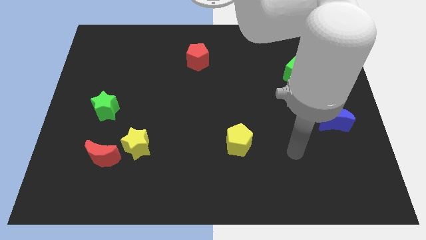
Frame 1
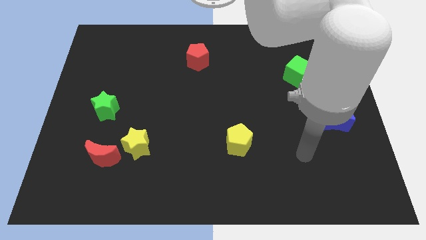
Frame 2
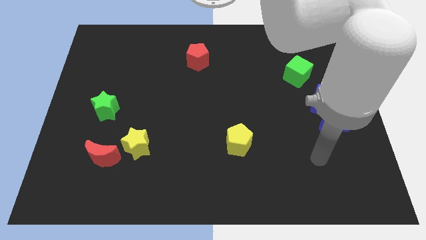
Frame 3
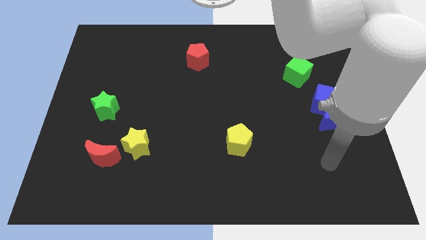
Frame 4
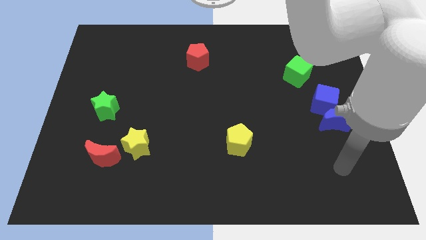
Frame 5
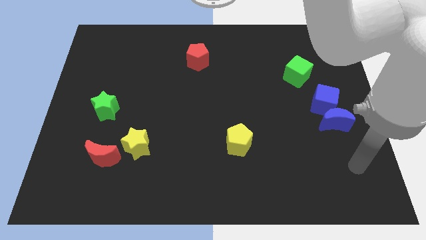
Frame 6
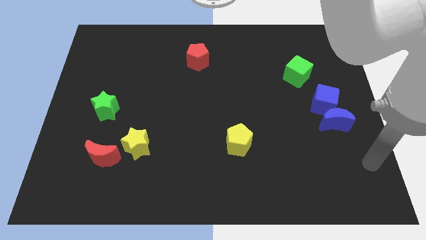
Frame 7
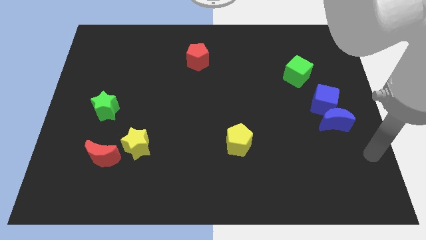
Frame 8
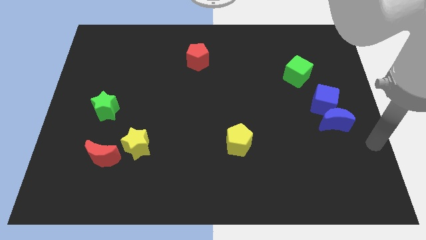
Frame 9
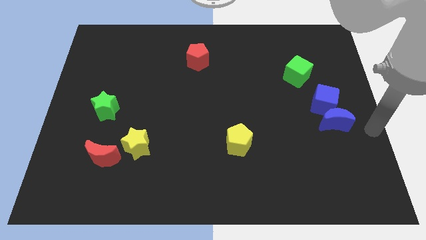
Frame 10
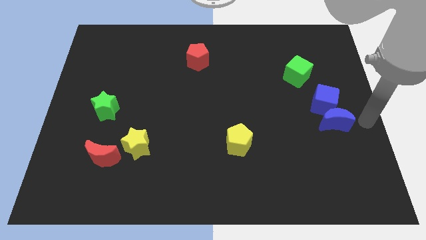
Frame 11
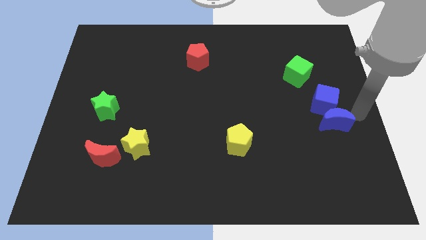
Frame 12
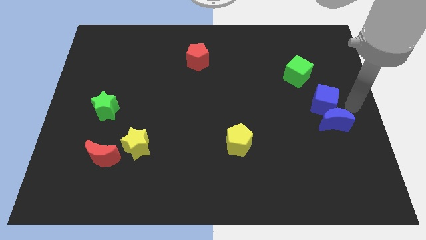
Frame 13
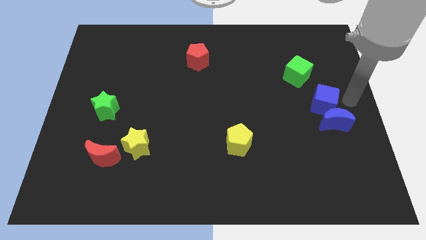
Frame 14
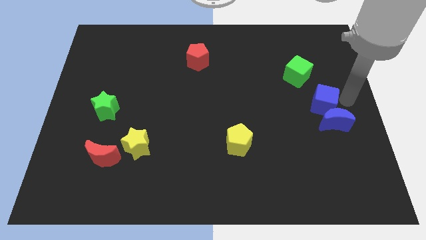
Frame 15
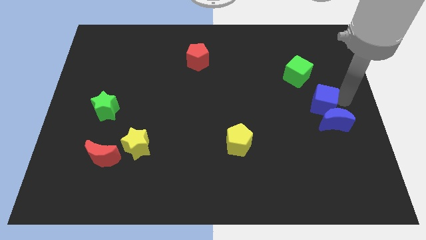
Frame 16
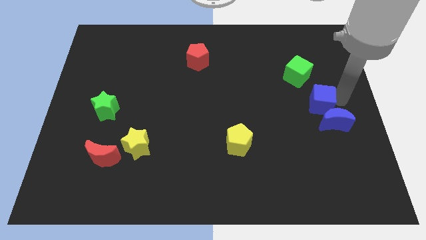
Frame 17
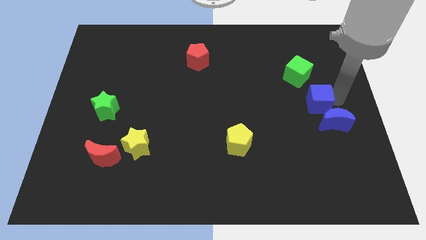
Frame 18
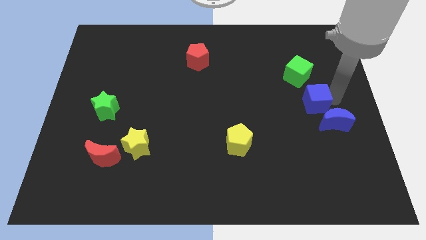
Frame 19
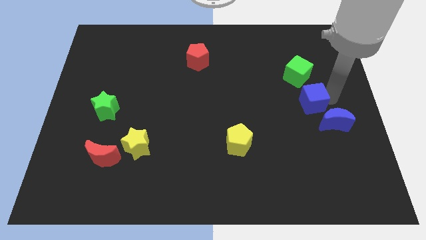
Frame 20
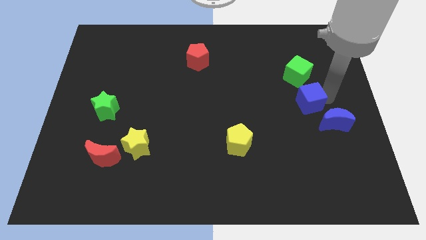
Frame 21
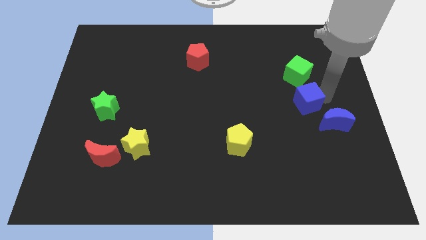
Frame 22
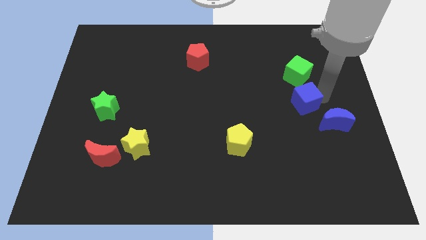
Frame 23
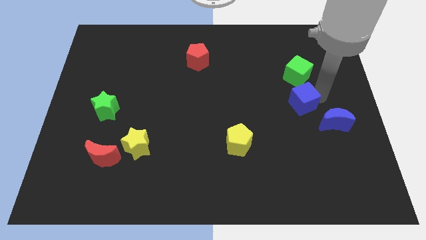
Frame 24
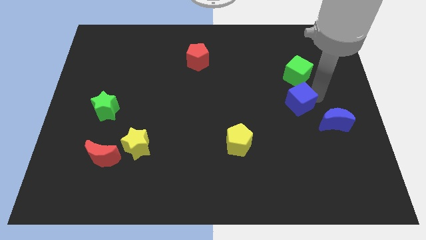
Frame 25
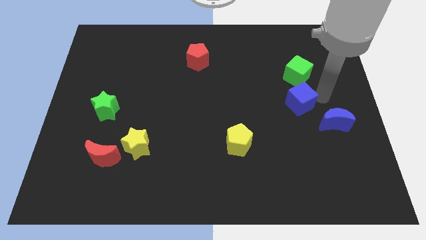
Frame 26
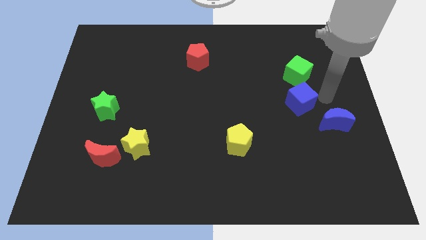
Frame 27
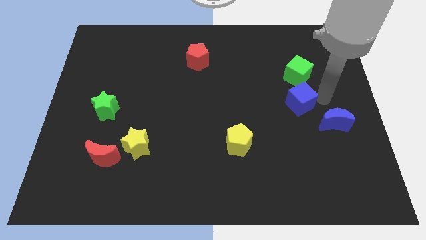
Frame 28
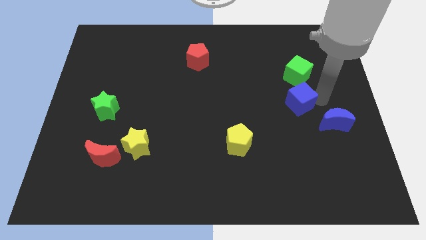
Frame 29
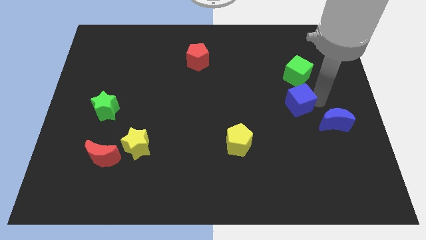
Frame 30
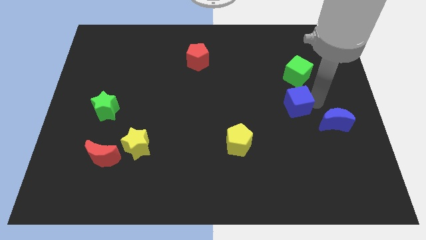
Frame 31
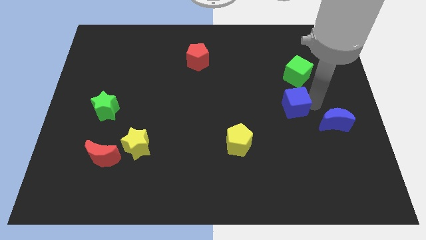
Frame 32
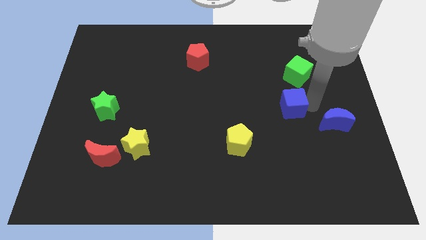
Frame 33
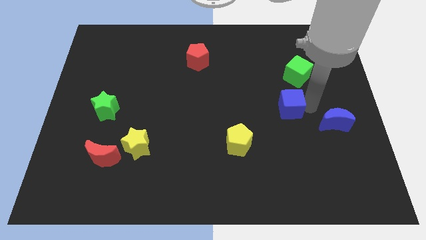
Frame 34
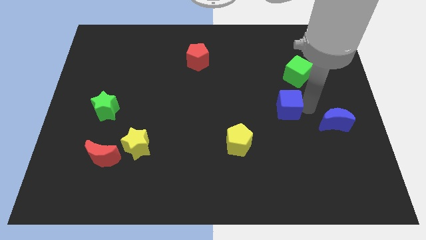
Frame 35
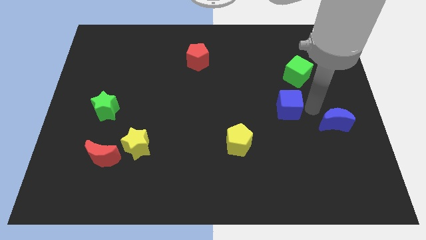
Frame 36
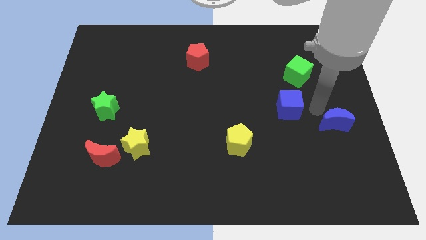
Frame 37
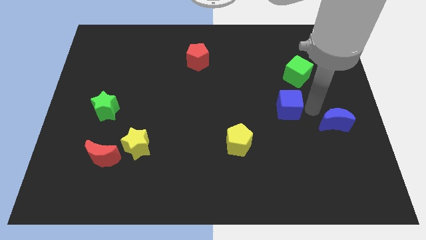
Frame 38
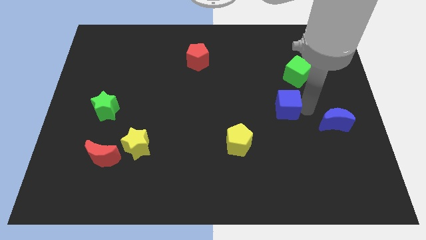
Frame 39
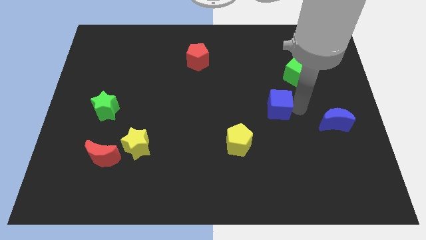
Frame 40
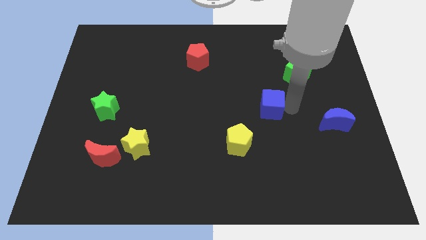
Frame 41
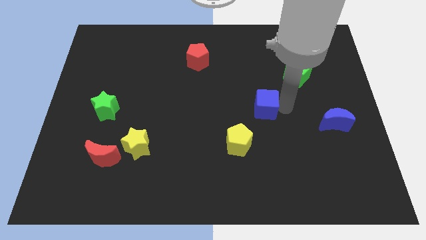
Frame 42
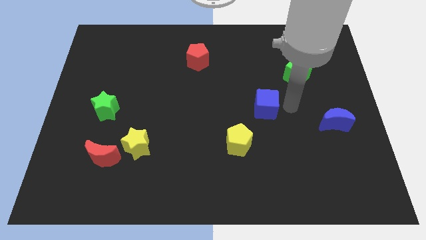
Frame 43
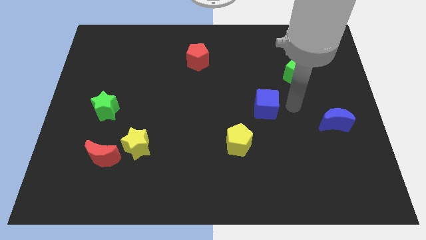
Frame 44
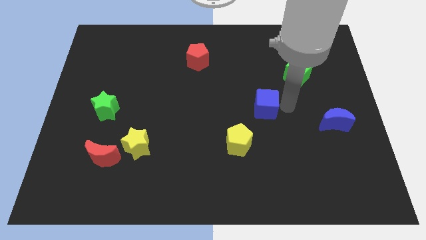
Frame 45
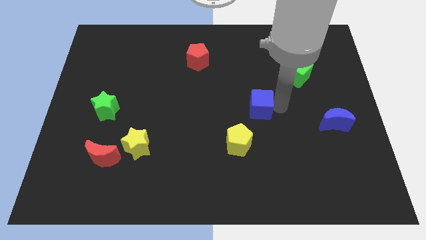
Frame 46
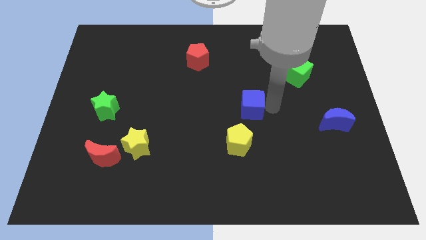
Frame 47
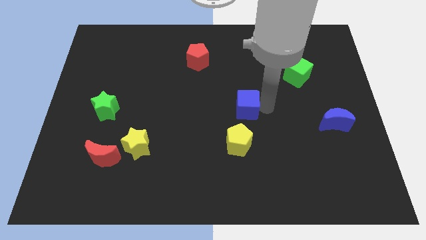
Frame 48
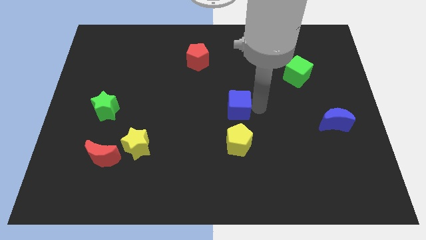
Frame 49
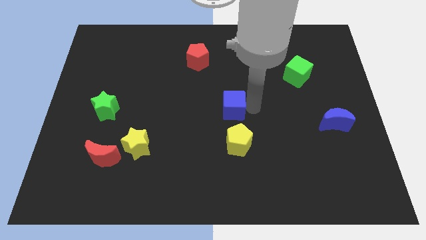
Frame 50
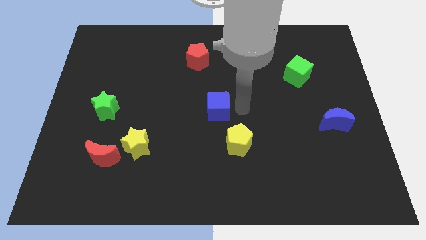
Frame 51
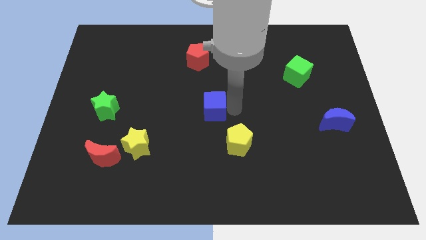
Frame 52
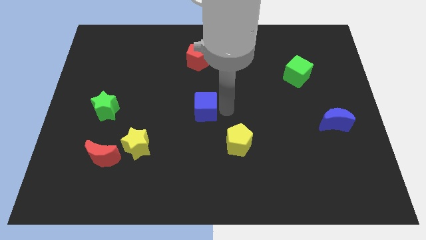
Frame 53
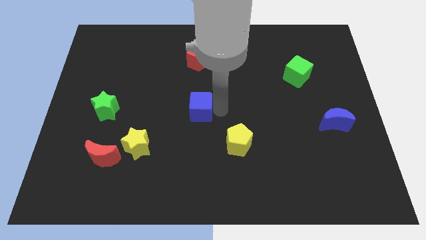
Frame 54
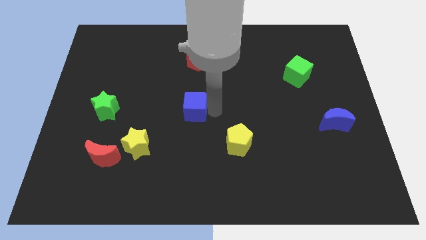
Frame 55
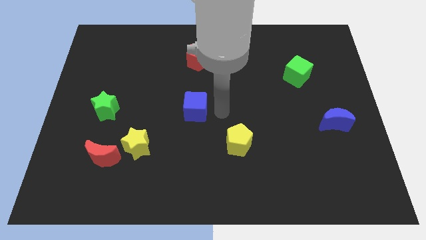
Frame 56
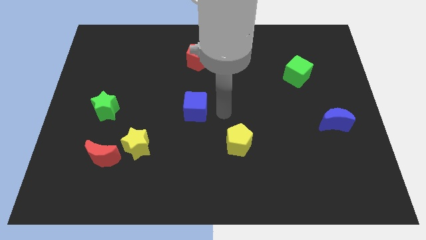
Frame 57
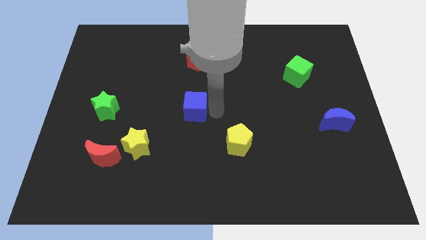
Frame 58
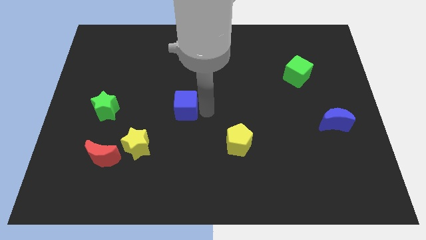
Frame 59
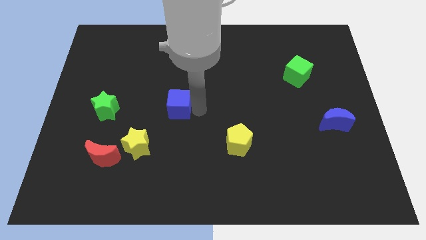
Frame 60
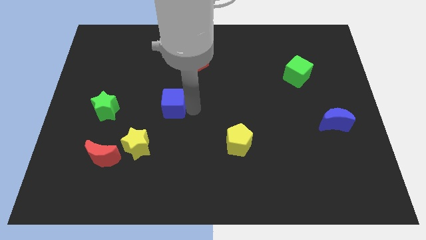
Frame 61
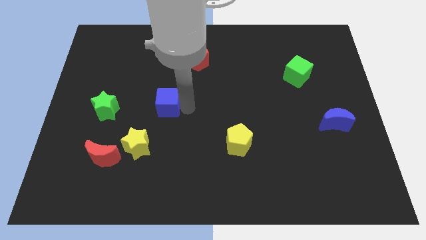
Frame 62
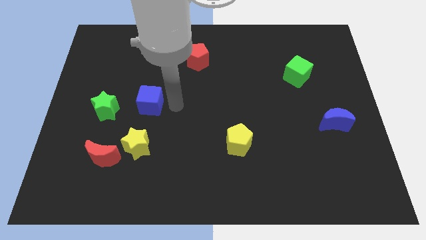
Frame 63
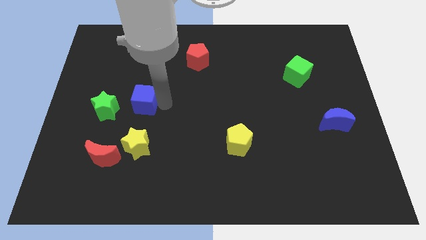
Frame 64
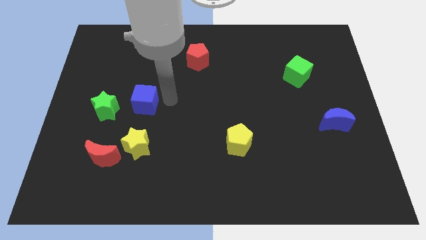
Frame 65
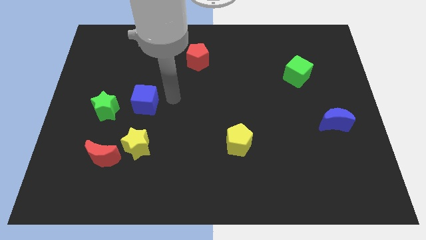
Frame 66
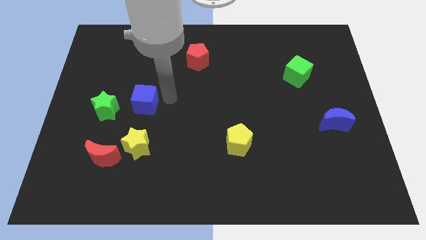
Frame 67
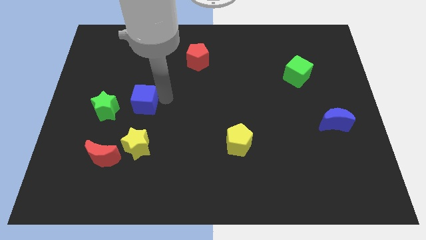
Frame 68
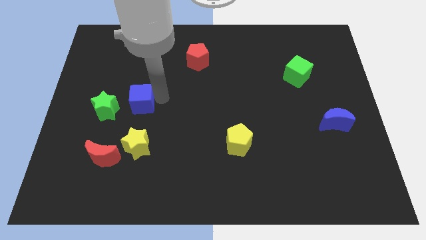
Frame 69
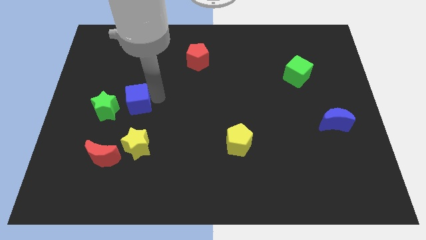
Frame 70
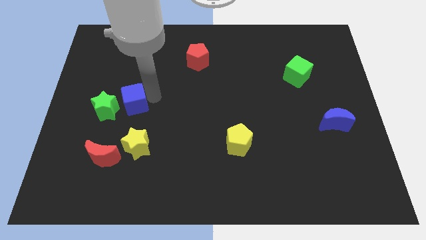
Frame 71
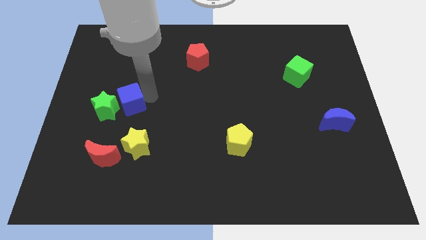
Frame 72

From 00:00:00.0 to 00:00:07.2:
move the blue cube next to the green star
